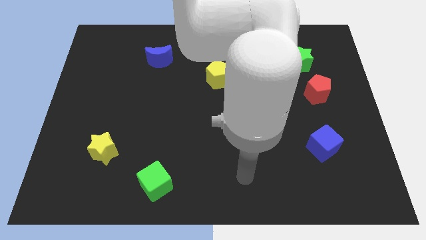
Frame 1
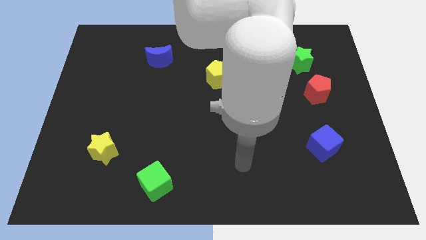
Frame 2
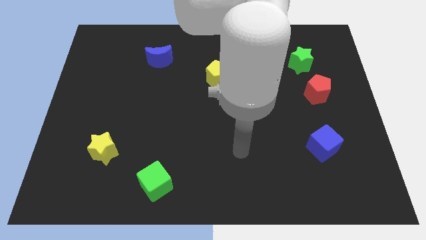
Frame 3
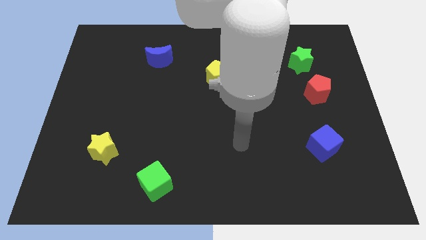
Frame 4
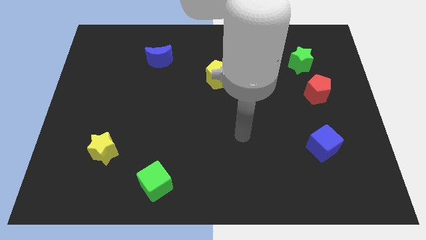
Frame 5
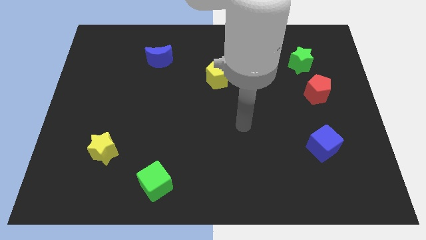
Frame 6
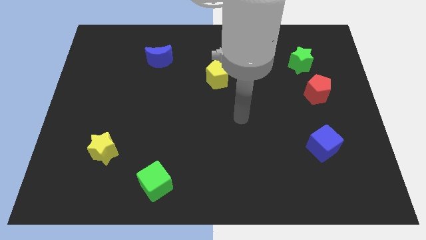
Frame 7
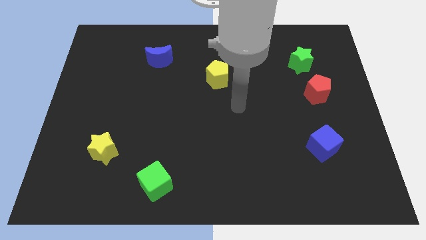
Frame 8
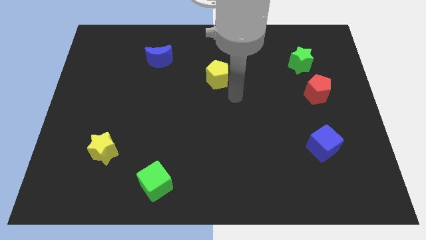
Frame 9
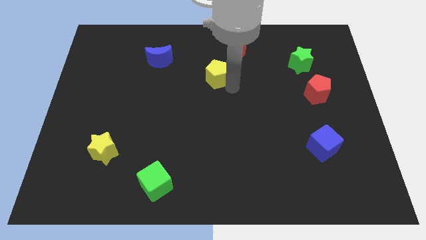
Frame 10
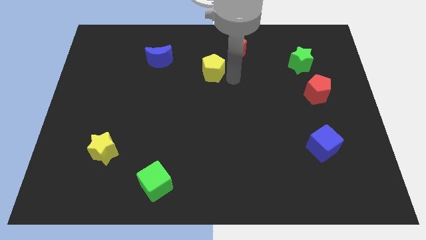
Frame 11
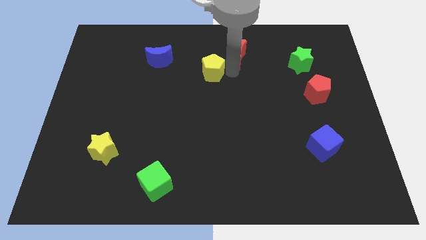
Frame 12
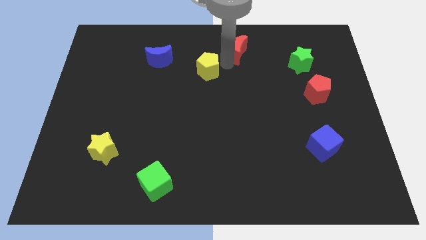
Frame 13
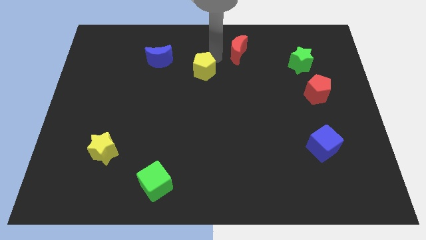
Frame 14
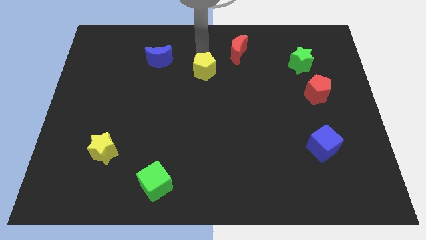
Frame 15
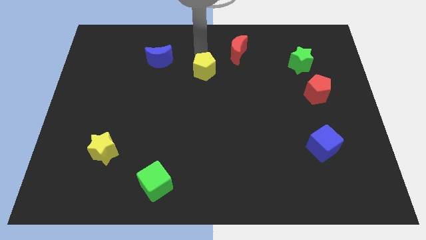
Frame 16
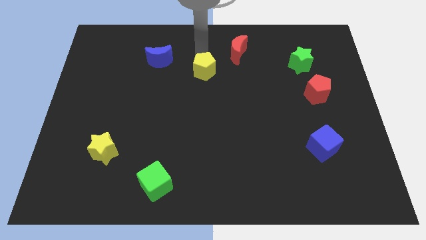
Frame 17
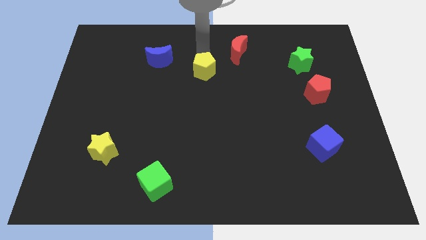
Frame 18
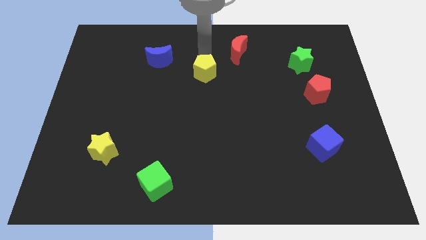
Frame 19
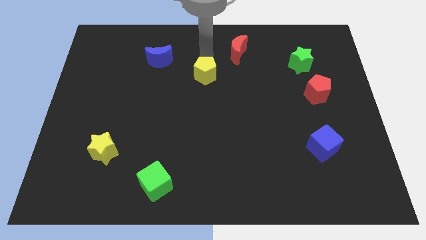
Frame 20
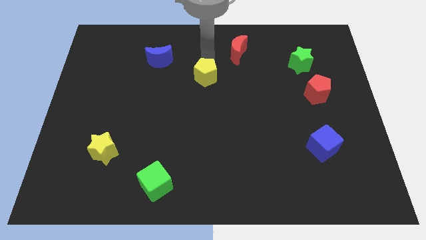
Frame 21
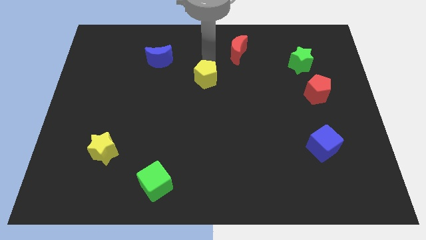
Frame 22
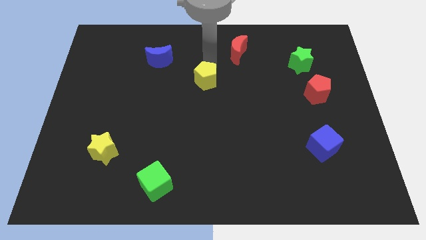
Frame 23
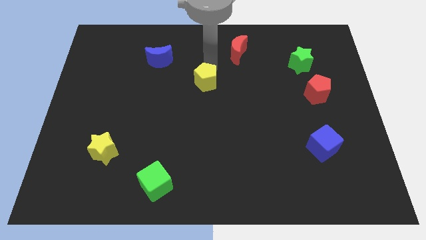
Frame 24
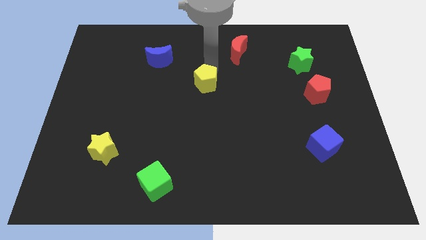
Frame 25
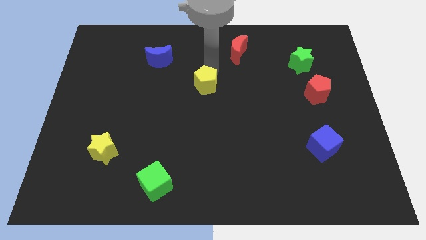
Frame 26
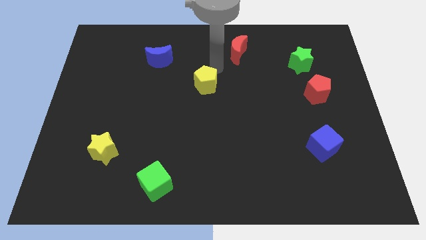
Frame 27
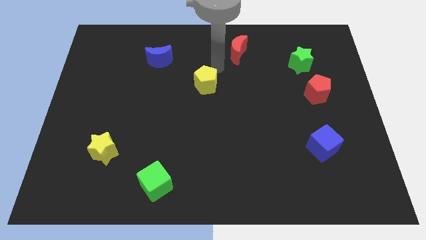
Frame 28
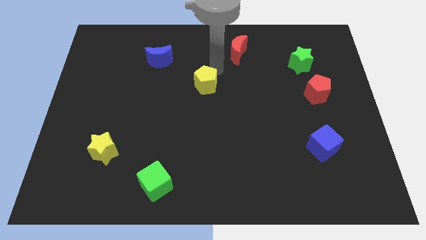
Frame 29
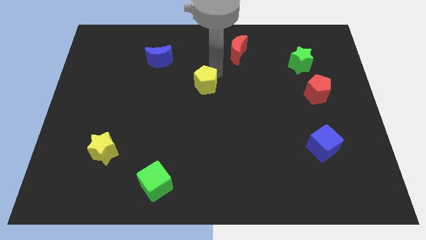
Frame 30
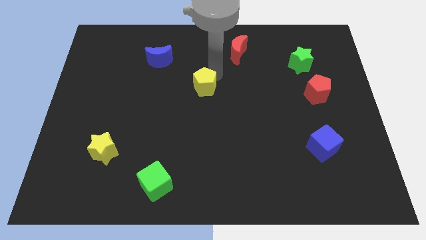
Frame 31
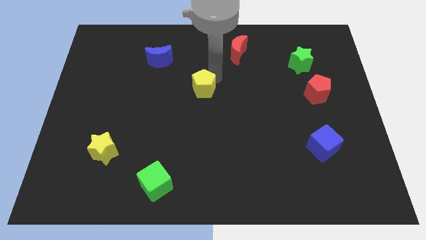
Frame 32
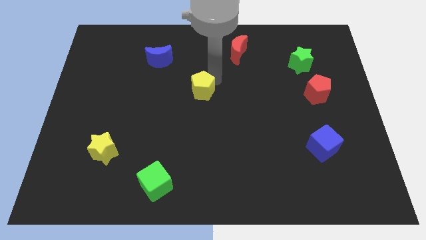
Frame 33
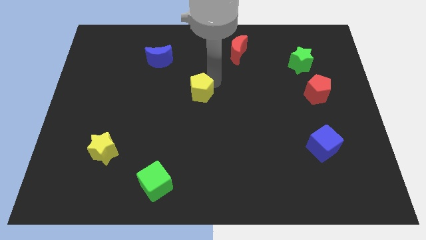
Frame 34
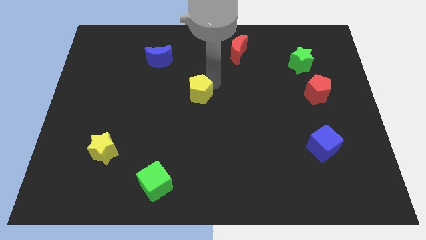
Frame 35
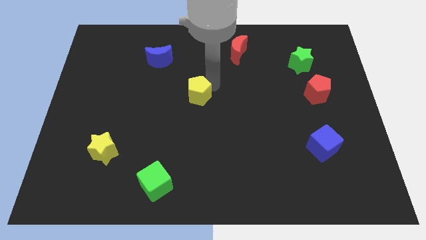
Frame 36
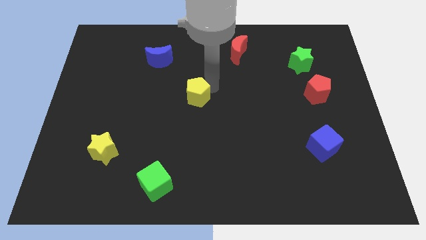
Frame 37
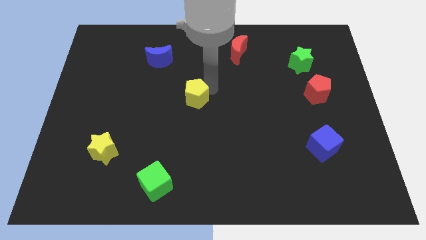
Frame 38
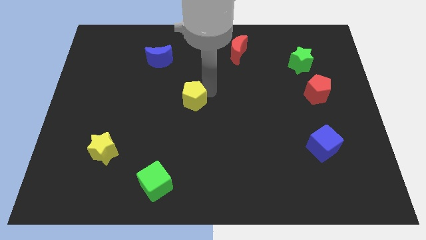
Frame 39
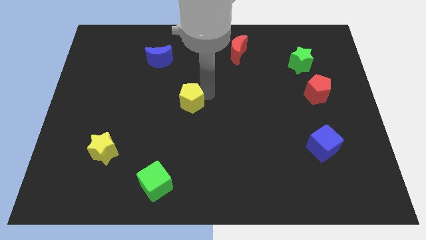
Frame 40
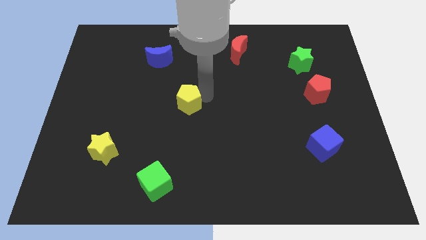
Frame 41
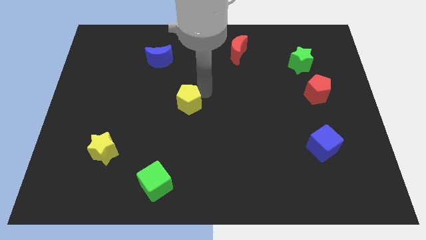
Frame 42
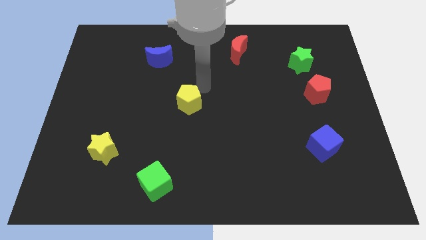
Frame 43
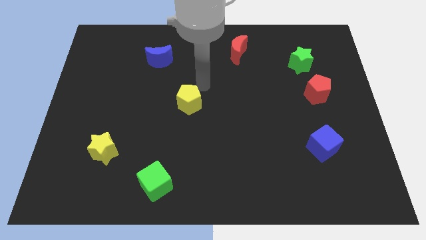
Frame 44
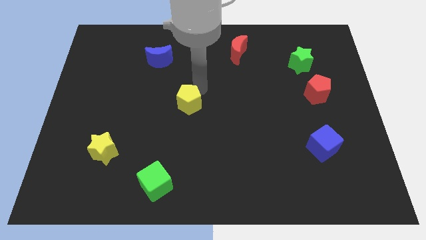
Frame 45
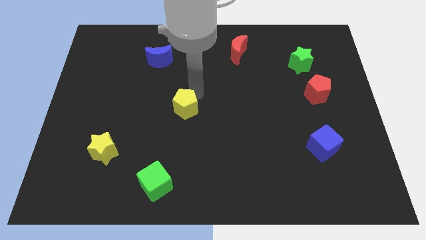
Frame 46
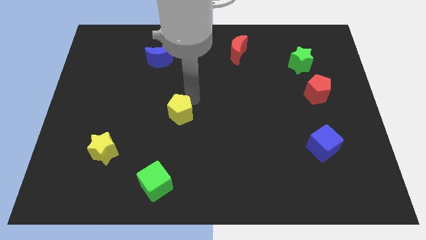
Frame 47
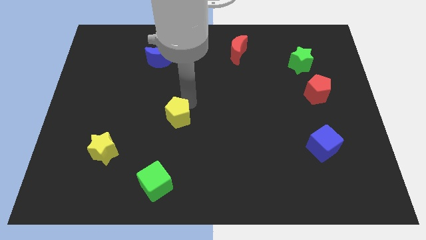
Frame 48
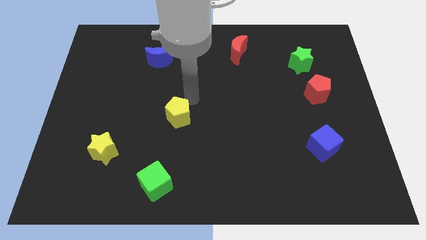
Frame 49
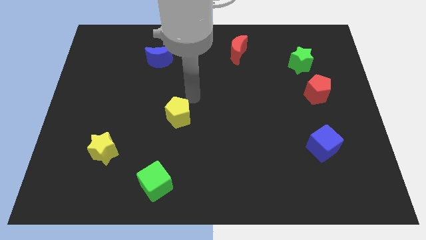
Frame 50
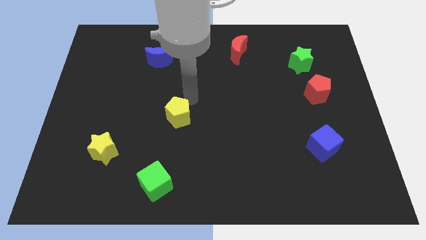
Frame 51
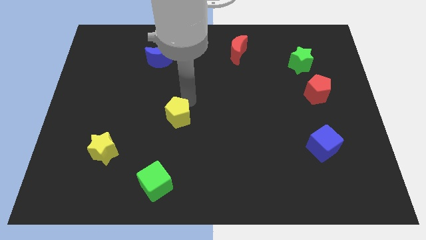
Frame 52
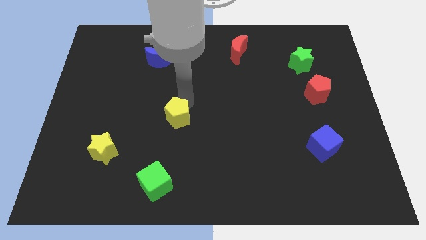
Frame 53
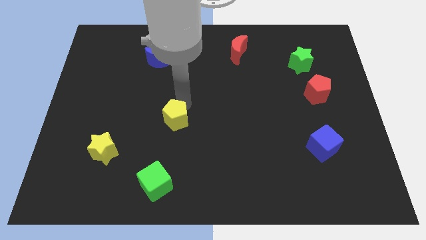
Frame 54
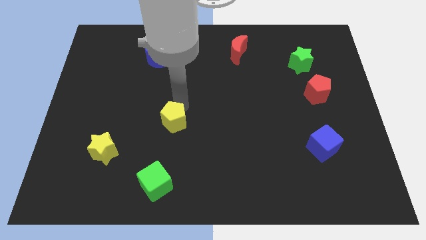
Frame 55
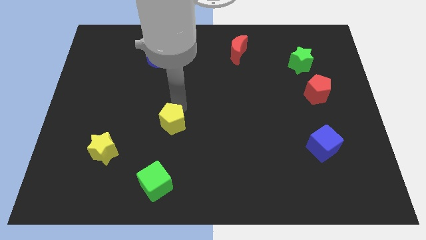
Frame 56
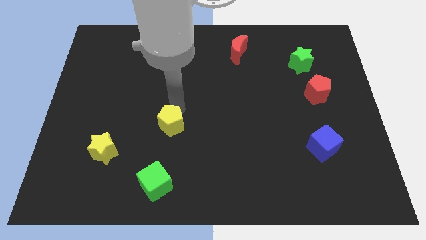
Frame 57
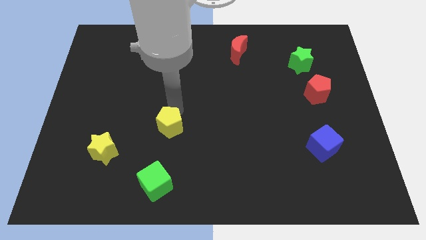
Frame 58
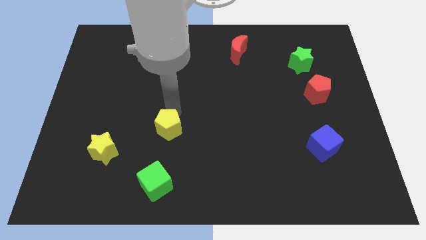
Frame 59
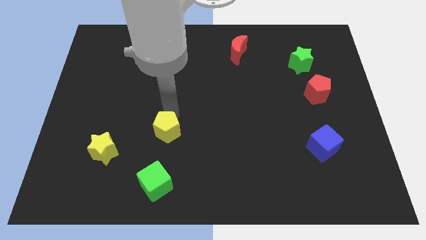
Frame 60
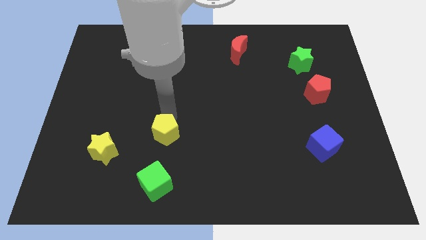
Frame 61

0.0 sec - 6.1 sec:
push the yellow pentagon to the right of the yellow star
